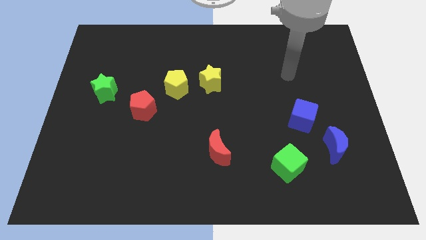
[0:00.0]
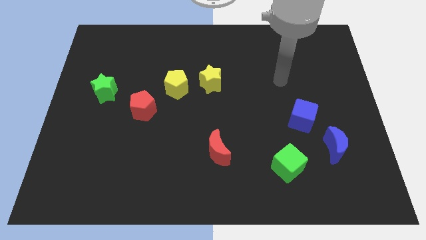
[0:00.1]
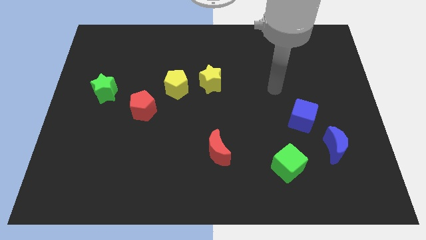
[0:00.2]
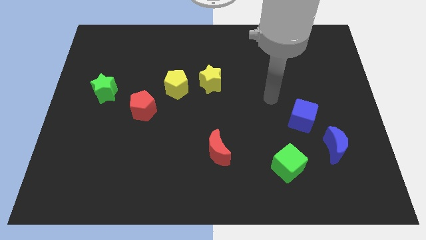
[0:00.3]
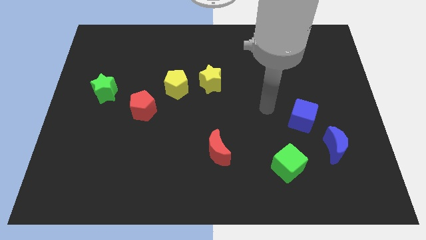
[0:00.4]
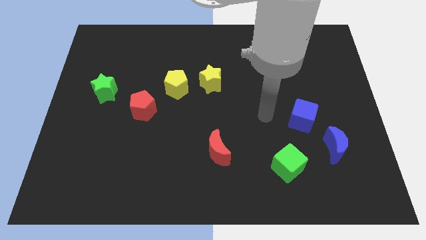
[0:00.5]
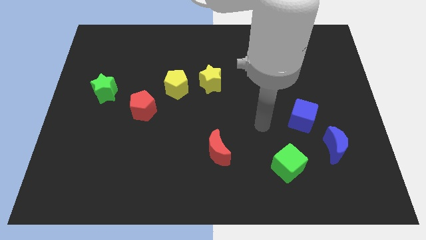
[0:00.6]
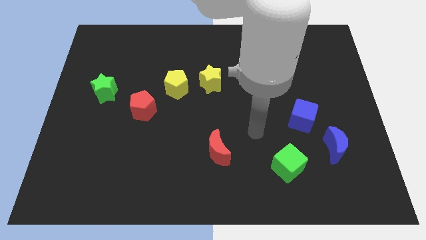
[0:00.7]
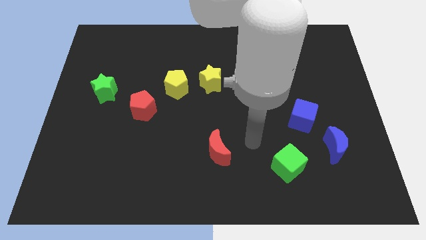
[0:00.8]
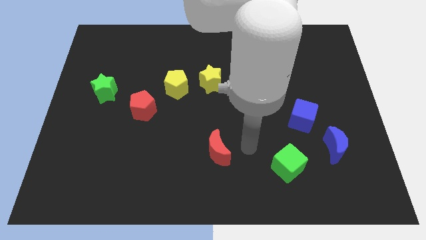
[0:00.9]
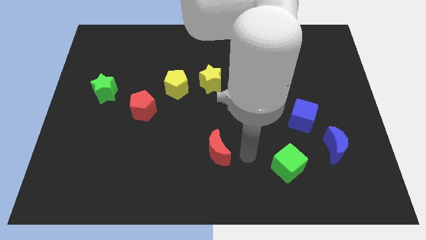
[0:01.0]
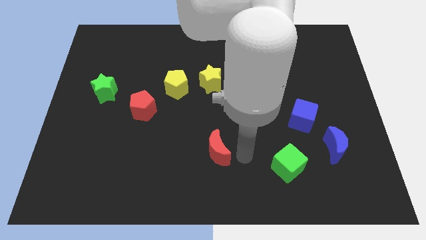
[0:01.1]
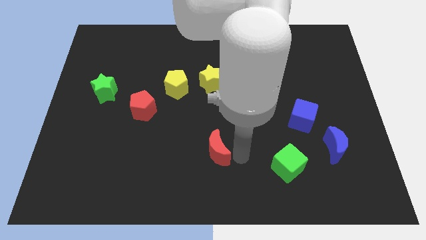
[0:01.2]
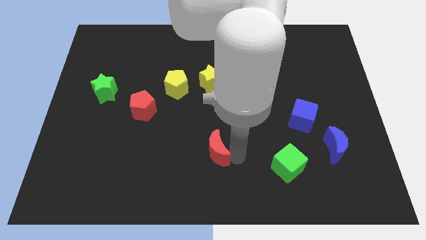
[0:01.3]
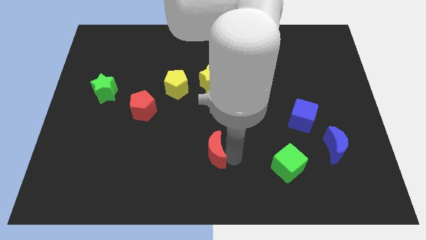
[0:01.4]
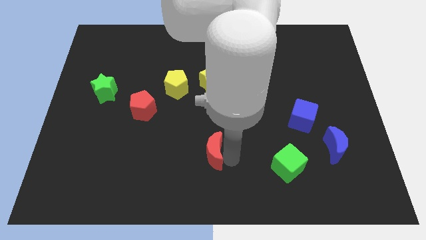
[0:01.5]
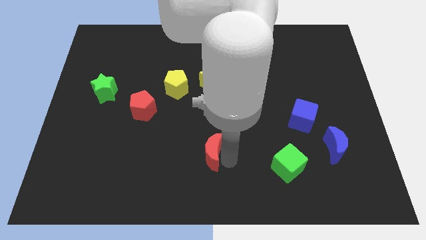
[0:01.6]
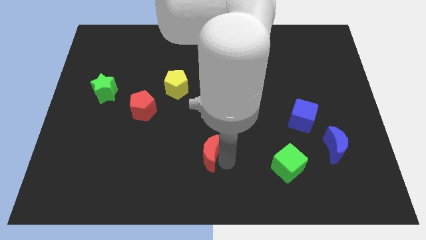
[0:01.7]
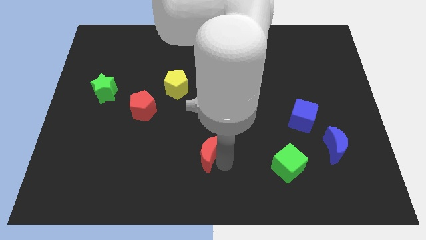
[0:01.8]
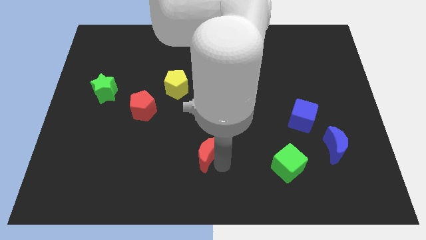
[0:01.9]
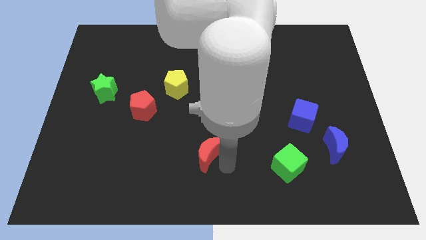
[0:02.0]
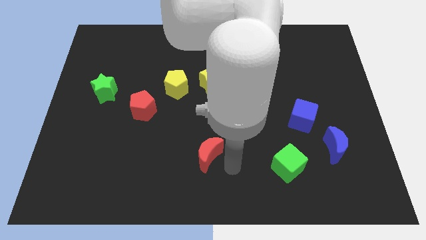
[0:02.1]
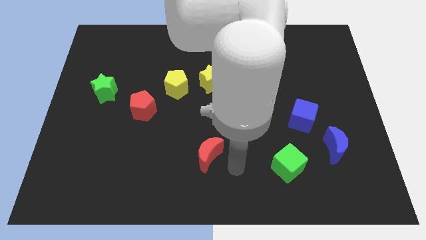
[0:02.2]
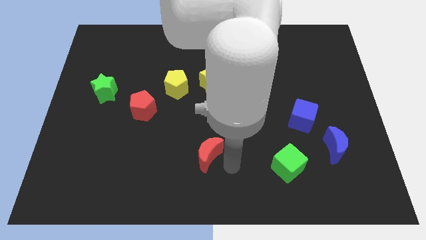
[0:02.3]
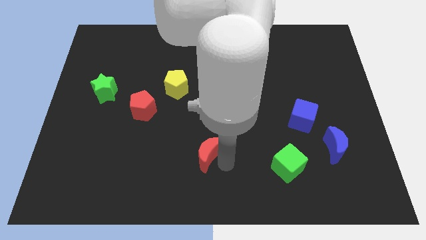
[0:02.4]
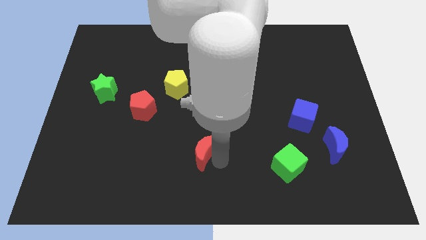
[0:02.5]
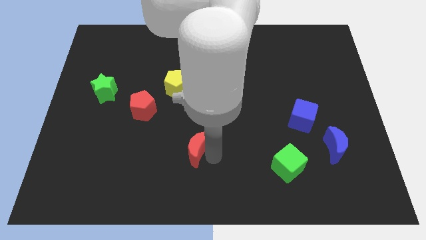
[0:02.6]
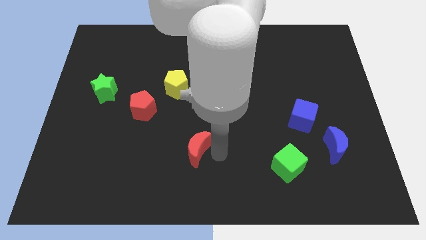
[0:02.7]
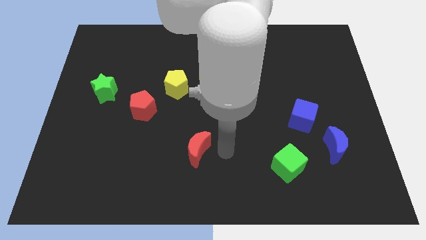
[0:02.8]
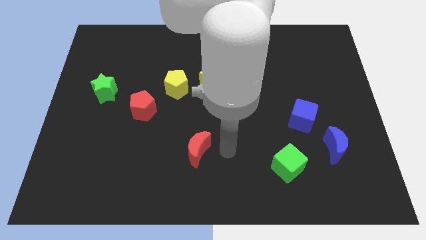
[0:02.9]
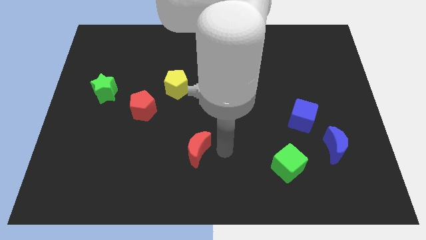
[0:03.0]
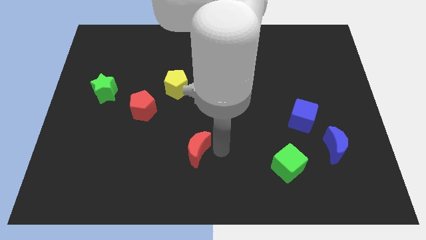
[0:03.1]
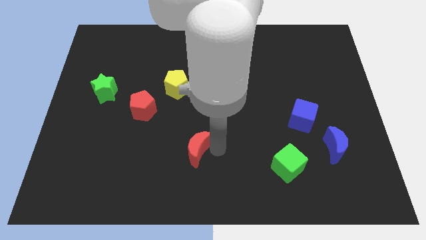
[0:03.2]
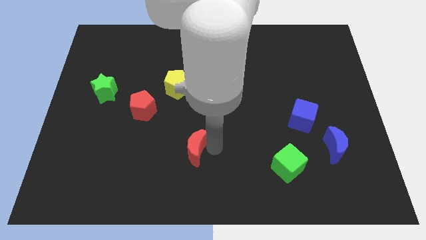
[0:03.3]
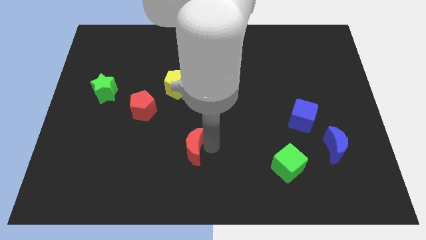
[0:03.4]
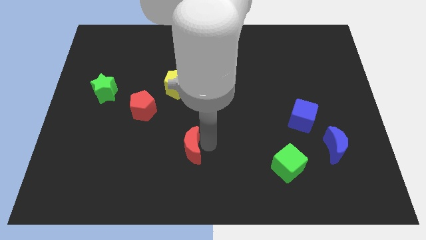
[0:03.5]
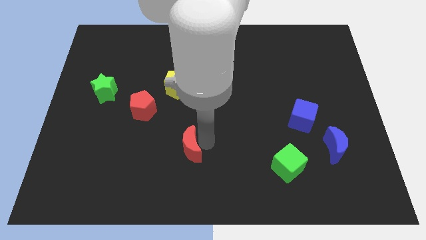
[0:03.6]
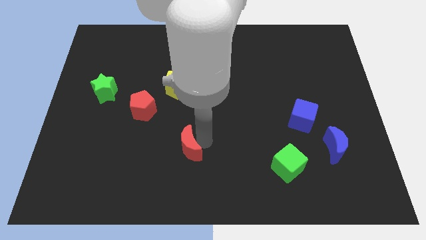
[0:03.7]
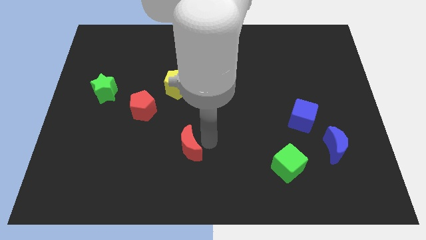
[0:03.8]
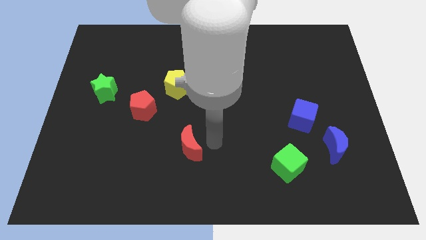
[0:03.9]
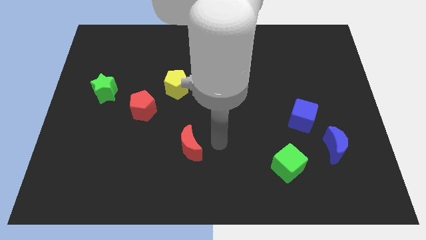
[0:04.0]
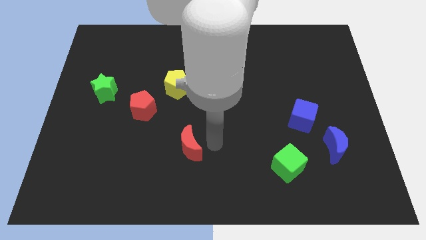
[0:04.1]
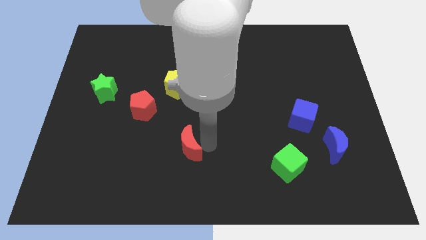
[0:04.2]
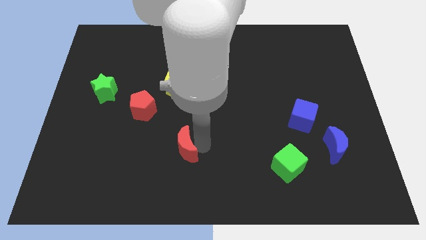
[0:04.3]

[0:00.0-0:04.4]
push the red moon left slightly

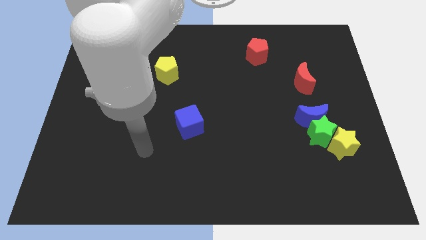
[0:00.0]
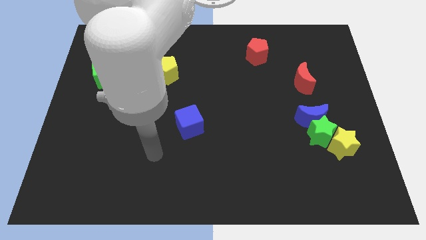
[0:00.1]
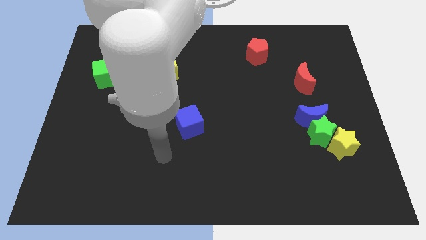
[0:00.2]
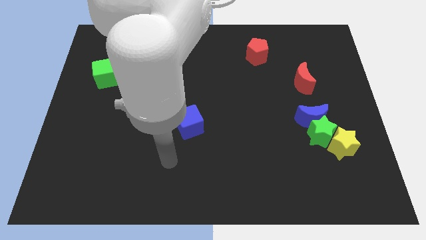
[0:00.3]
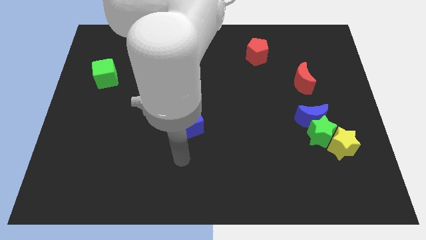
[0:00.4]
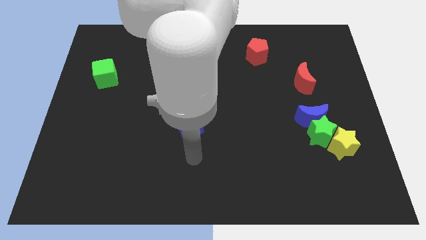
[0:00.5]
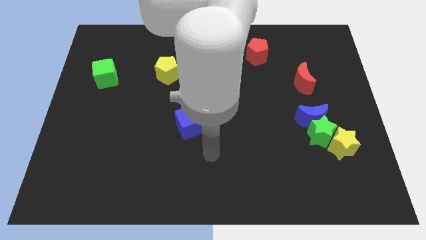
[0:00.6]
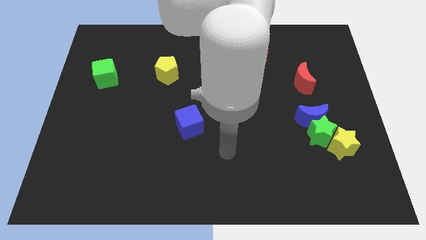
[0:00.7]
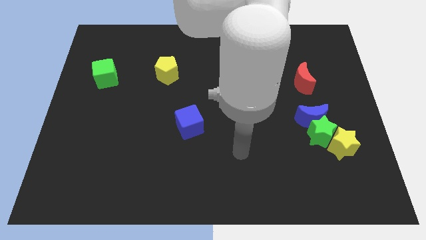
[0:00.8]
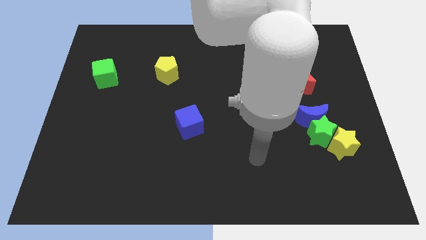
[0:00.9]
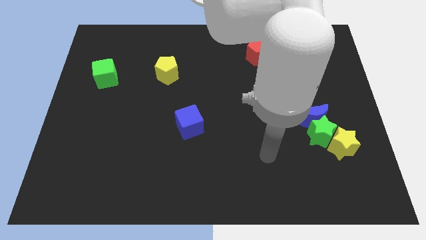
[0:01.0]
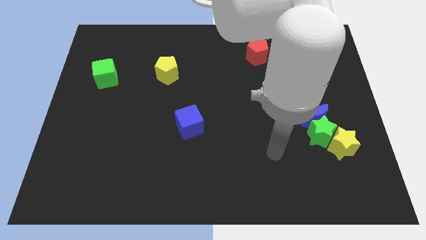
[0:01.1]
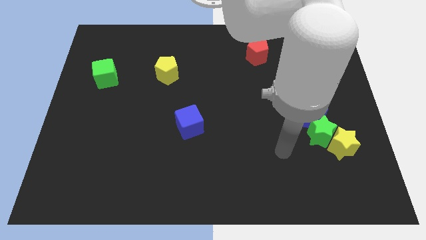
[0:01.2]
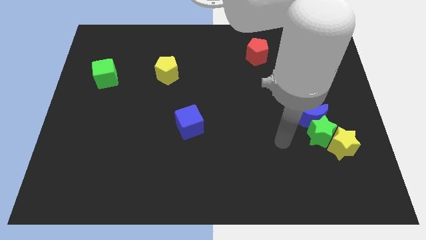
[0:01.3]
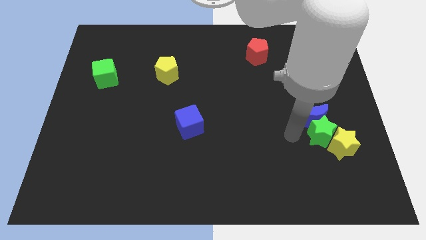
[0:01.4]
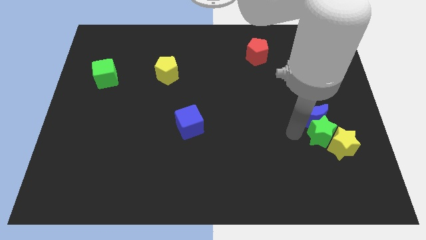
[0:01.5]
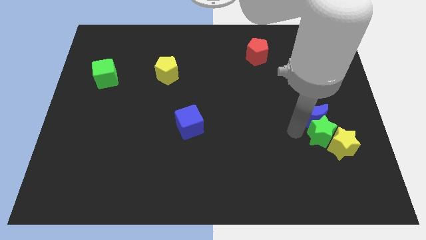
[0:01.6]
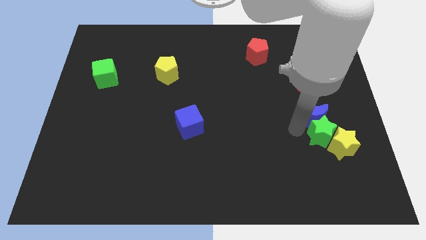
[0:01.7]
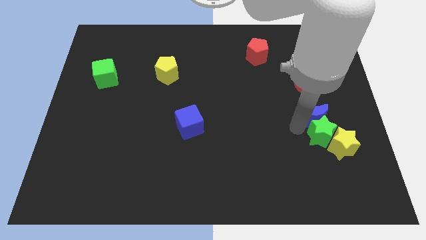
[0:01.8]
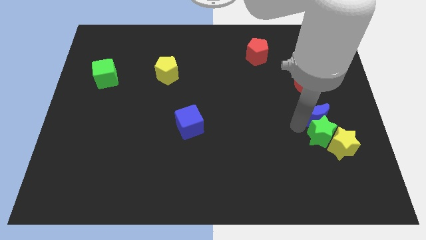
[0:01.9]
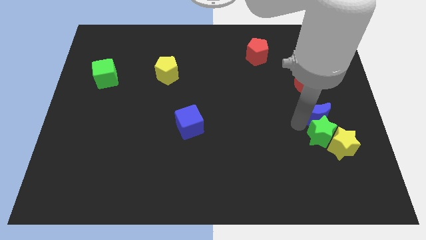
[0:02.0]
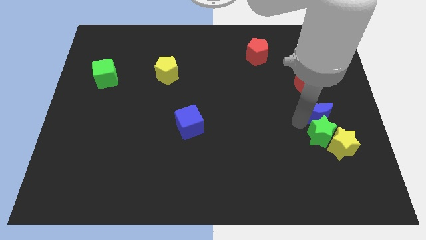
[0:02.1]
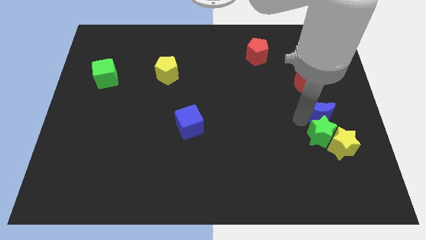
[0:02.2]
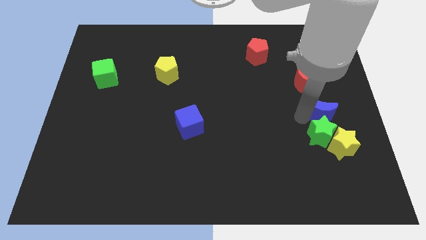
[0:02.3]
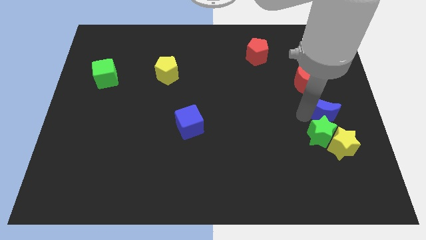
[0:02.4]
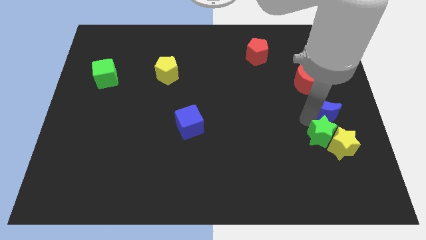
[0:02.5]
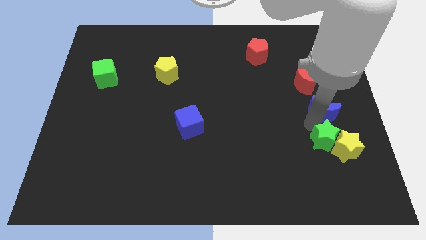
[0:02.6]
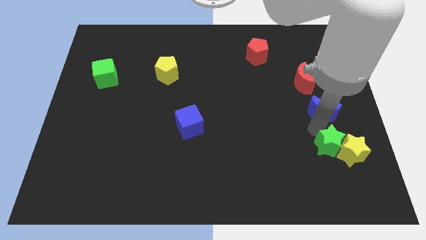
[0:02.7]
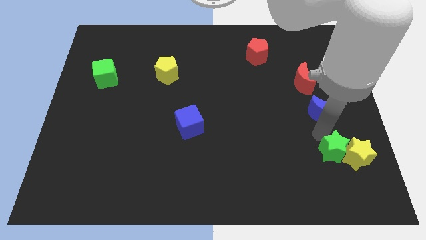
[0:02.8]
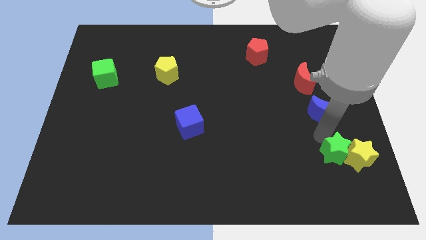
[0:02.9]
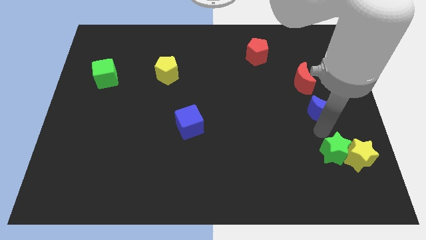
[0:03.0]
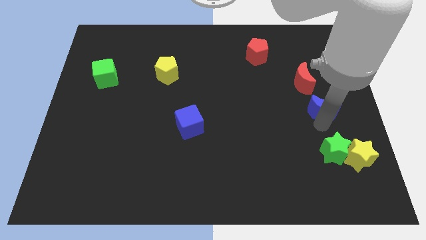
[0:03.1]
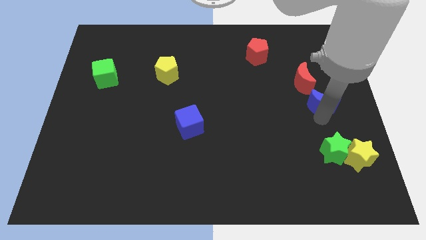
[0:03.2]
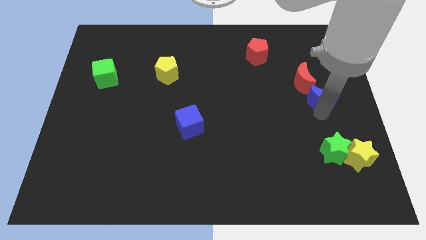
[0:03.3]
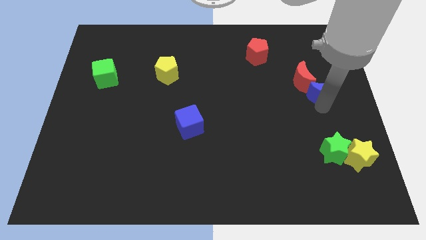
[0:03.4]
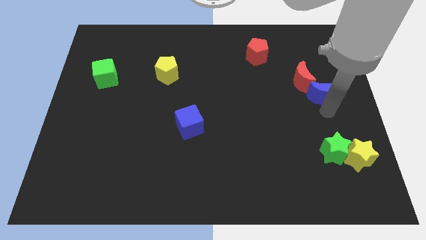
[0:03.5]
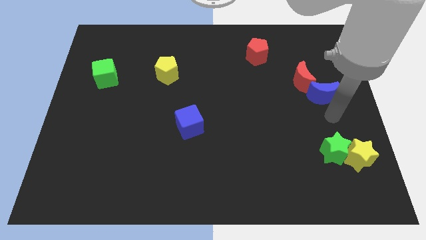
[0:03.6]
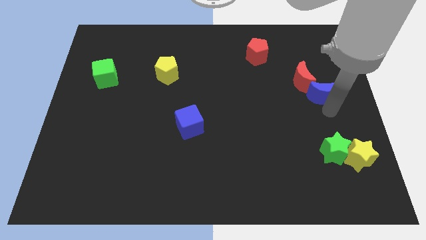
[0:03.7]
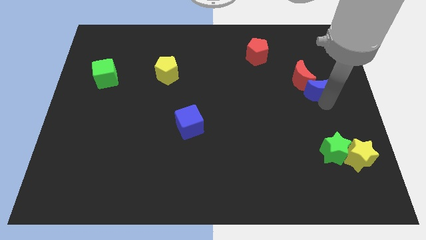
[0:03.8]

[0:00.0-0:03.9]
push the blue moon upwards a little bit

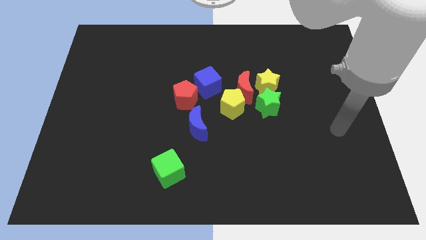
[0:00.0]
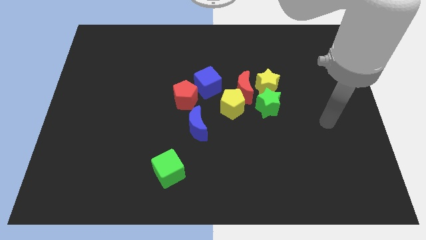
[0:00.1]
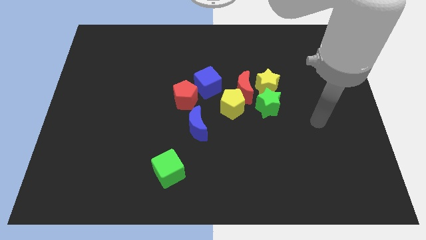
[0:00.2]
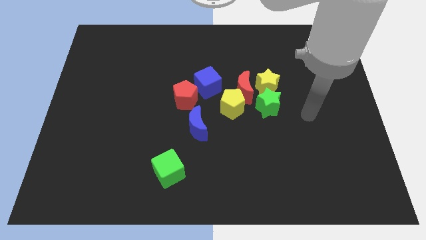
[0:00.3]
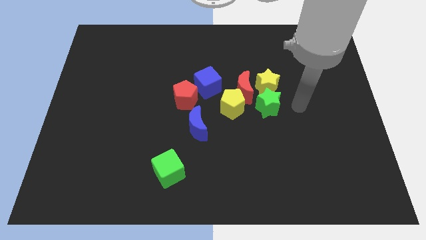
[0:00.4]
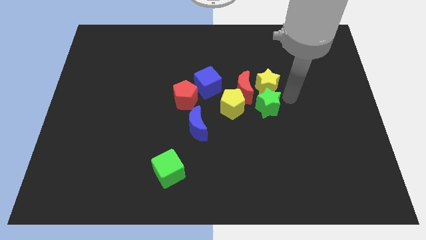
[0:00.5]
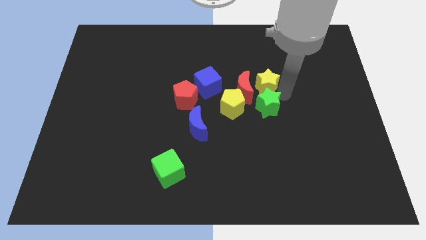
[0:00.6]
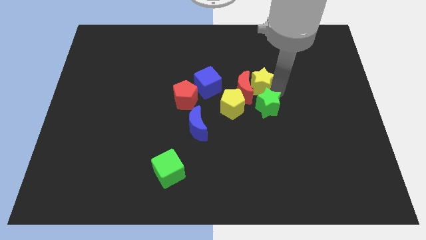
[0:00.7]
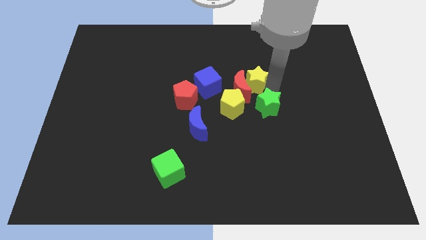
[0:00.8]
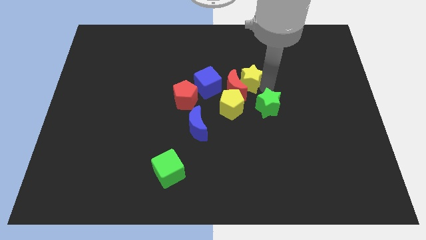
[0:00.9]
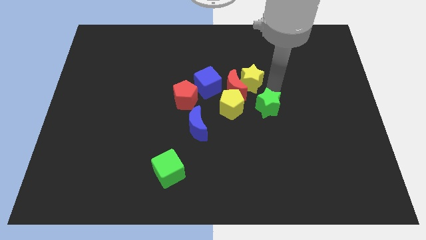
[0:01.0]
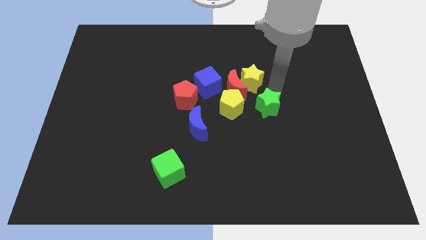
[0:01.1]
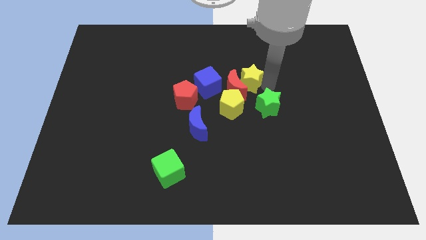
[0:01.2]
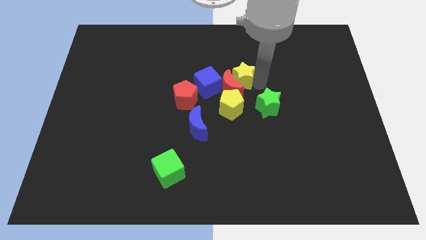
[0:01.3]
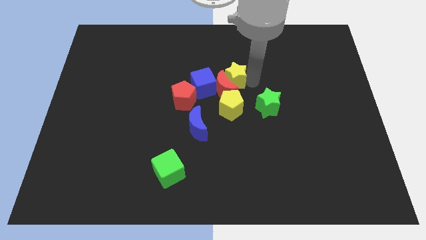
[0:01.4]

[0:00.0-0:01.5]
push the yellow star a little to the left
